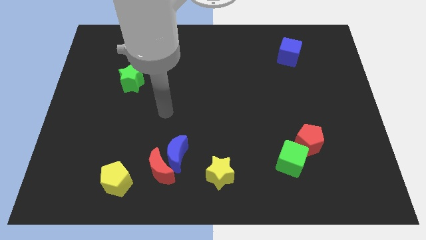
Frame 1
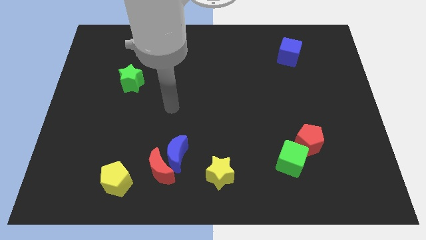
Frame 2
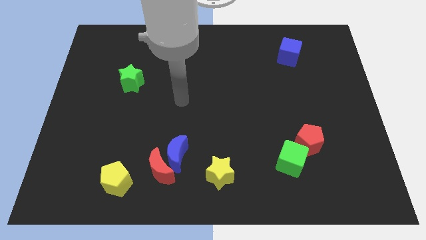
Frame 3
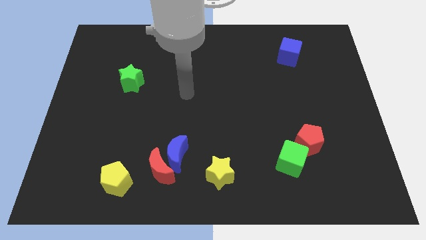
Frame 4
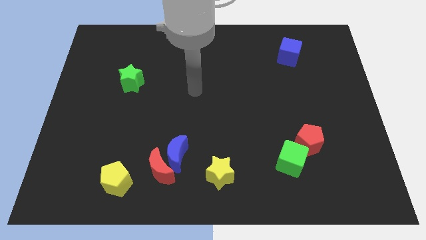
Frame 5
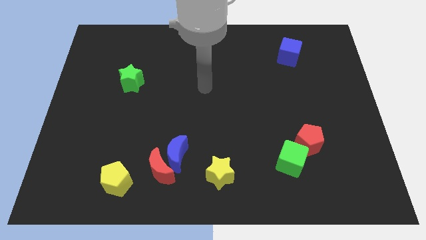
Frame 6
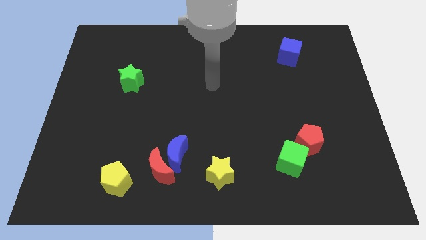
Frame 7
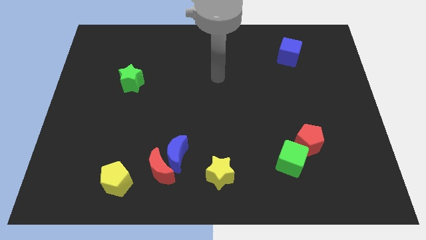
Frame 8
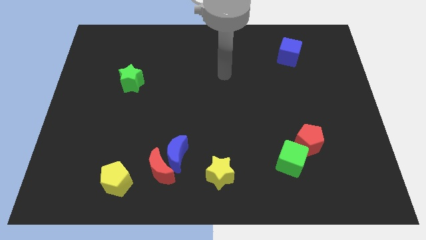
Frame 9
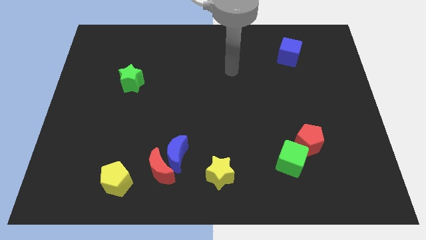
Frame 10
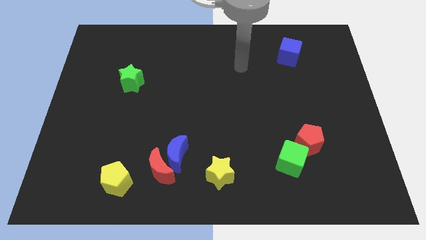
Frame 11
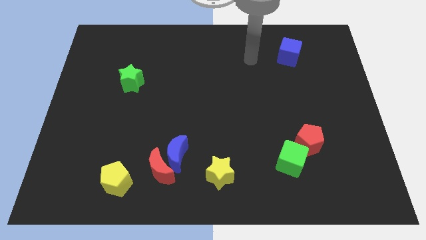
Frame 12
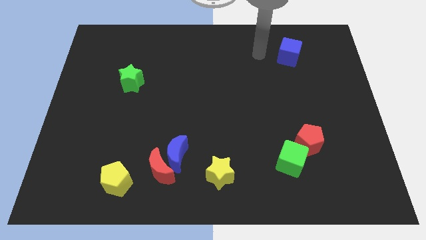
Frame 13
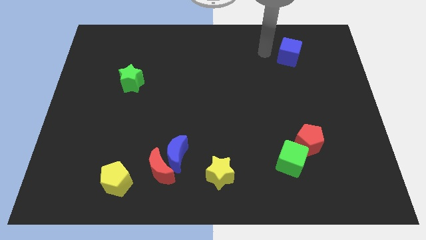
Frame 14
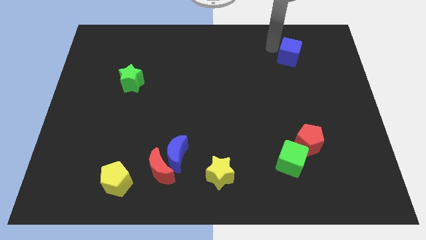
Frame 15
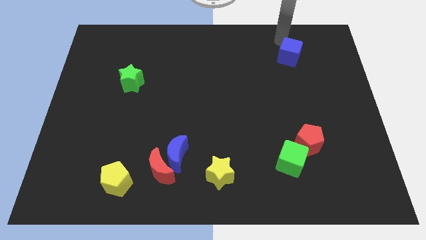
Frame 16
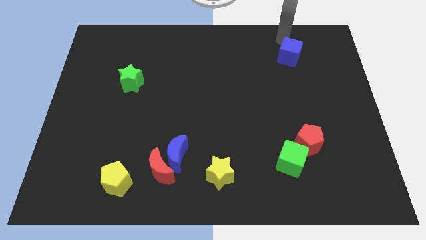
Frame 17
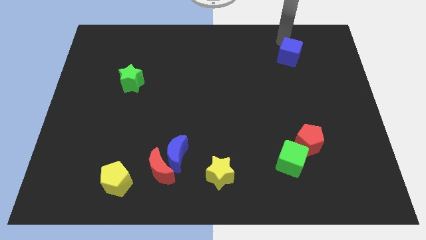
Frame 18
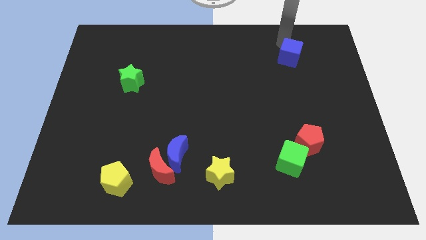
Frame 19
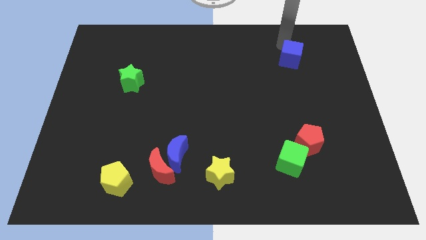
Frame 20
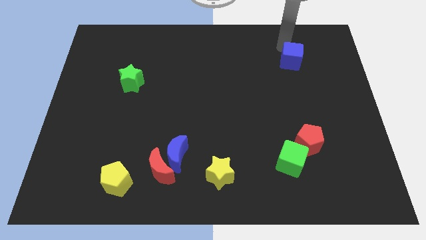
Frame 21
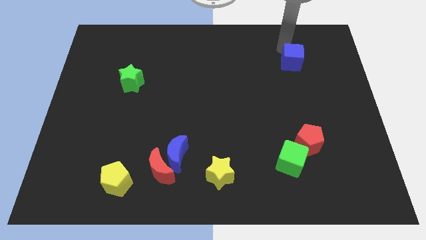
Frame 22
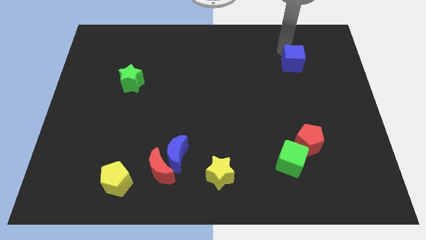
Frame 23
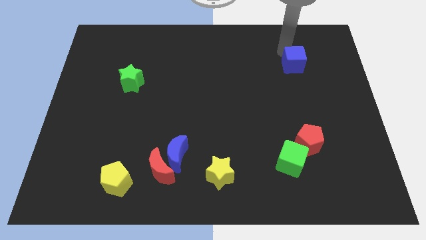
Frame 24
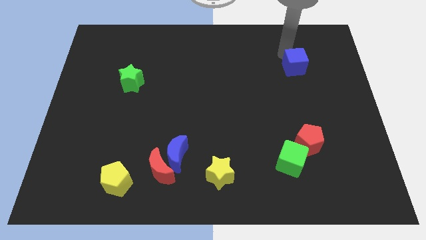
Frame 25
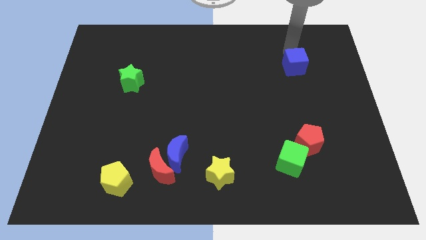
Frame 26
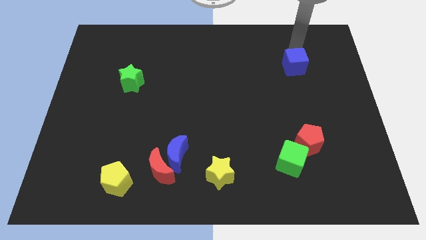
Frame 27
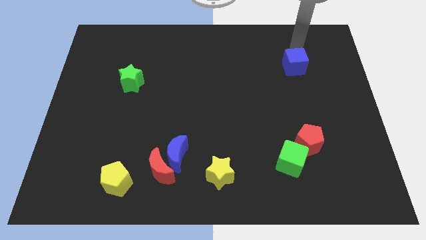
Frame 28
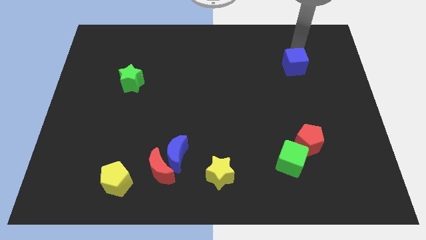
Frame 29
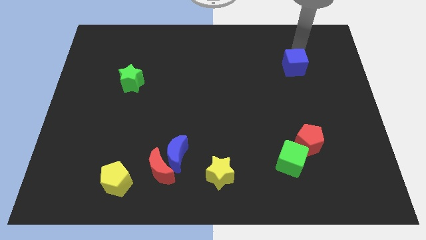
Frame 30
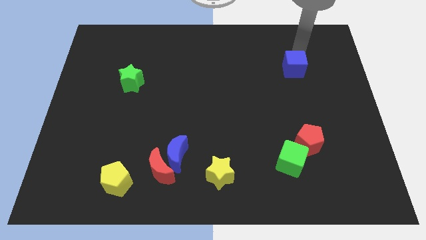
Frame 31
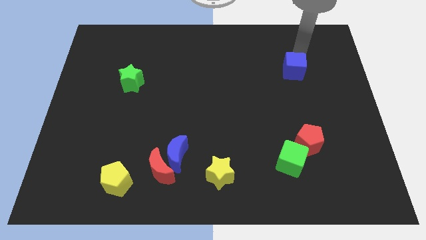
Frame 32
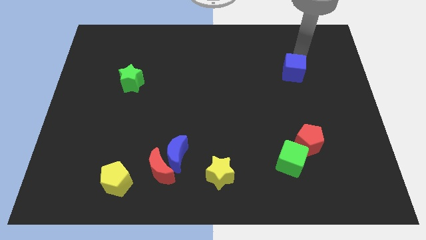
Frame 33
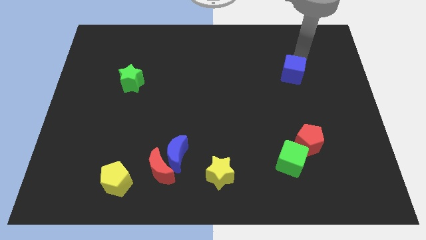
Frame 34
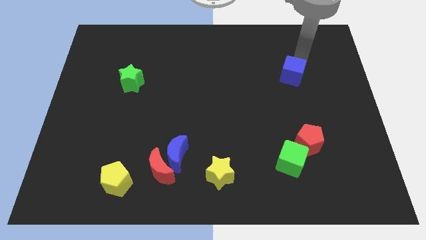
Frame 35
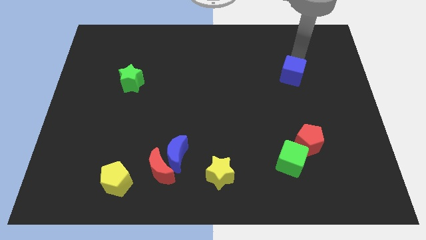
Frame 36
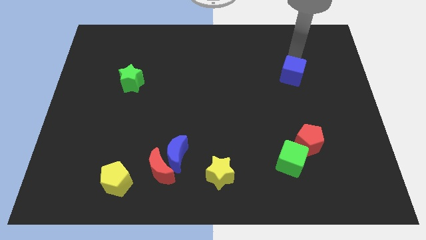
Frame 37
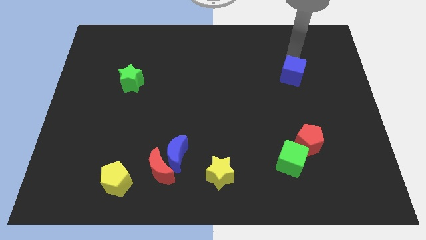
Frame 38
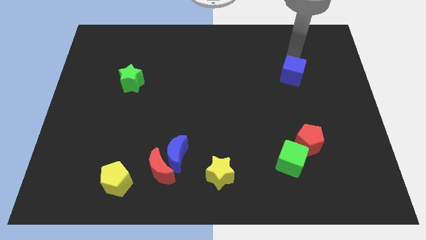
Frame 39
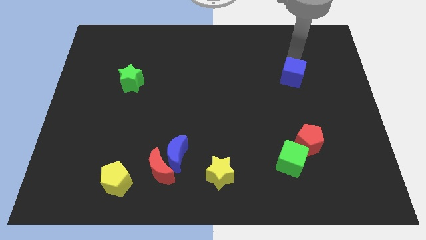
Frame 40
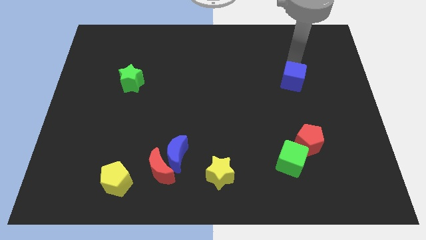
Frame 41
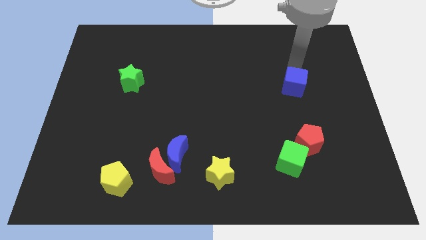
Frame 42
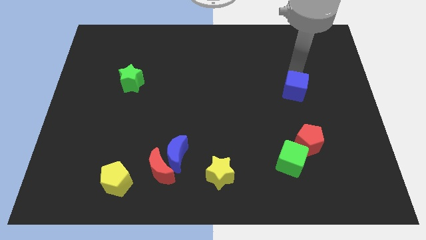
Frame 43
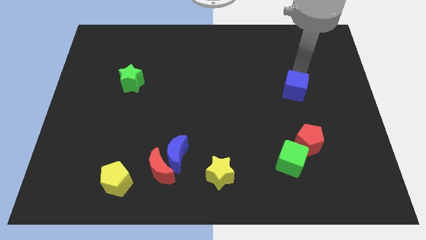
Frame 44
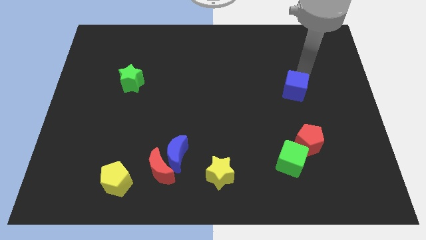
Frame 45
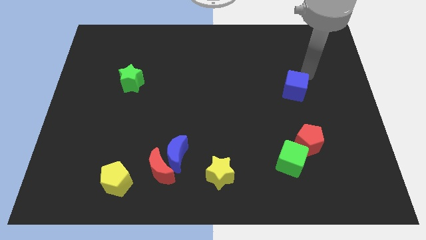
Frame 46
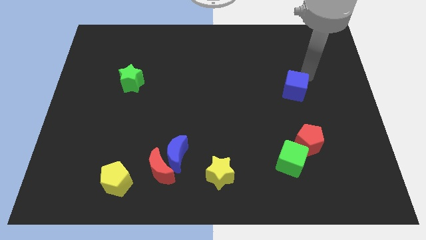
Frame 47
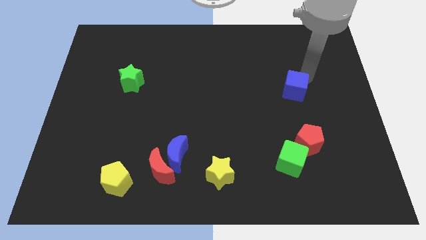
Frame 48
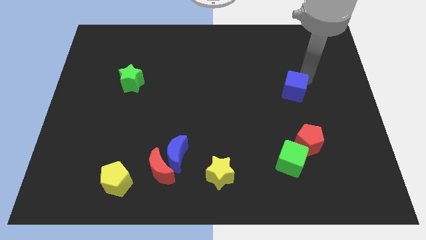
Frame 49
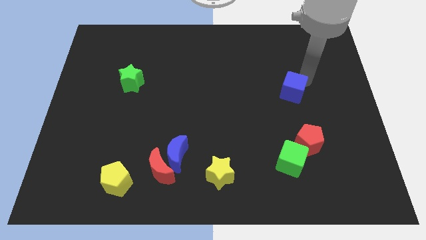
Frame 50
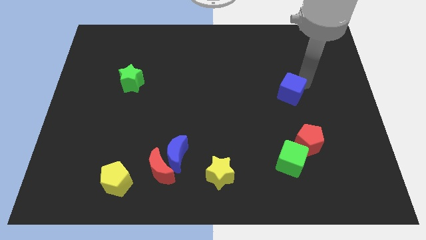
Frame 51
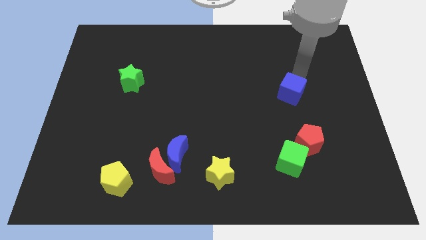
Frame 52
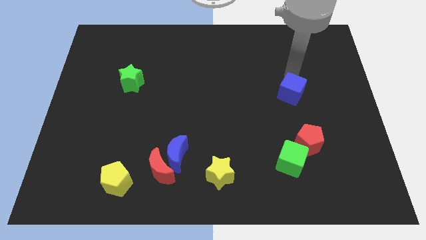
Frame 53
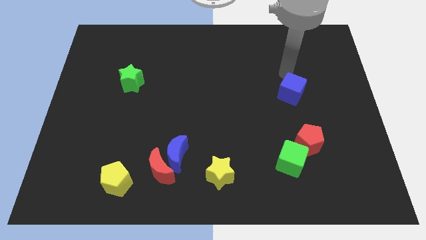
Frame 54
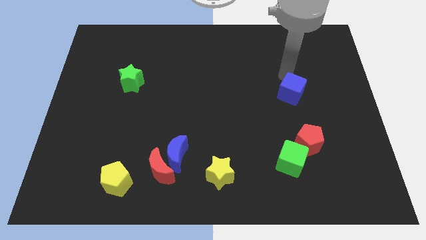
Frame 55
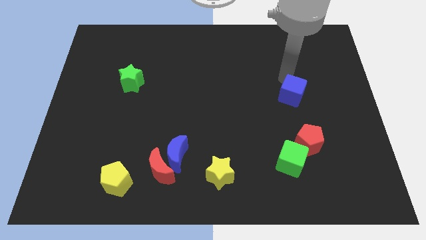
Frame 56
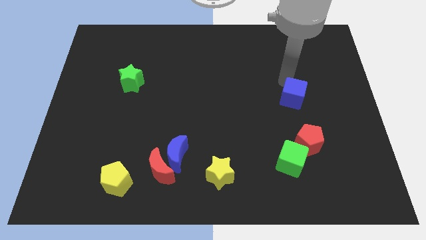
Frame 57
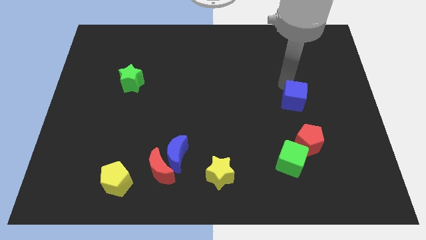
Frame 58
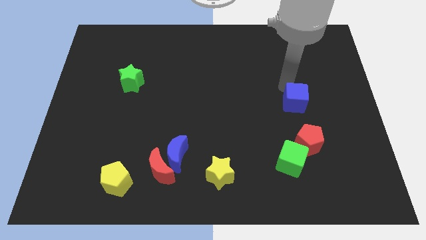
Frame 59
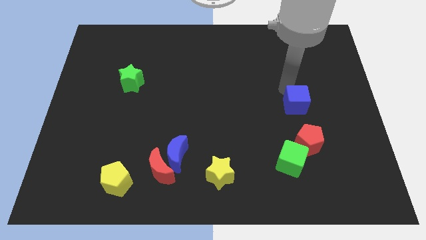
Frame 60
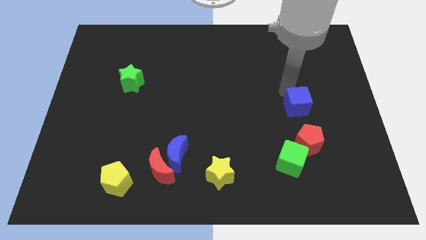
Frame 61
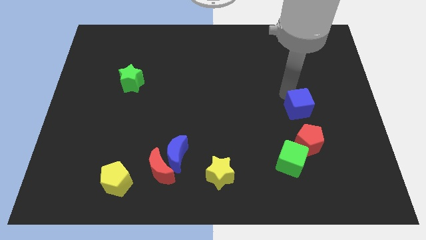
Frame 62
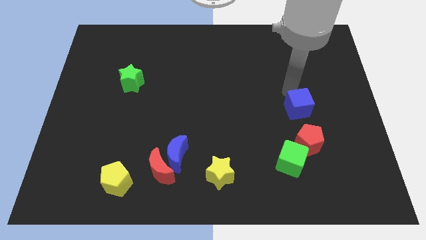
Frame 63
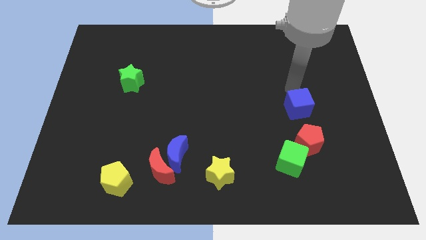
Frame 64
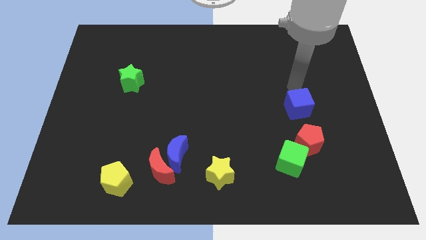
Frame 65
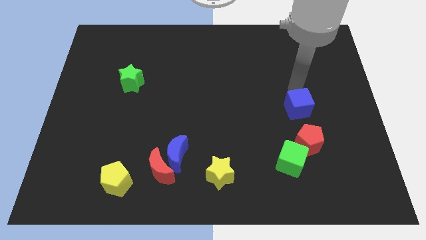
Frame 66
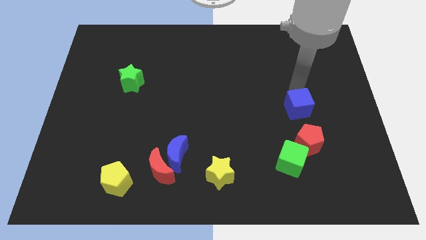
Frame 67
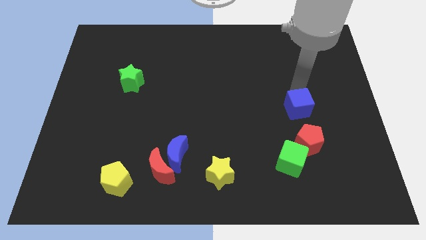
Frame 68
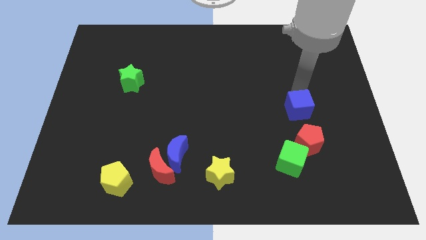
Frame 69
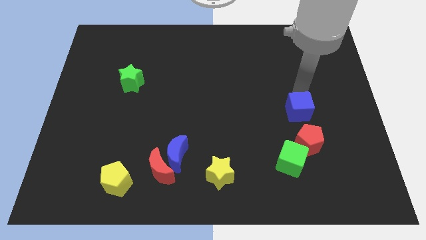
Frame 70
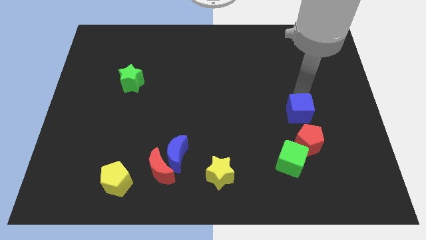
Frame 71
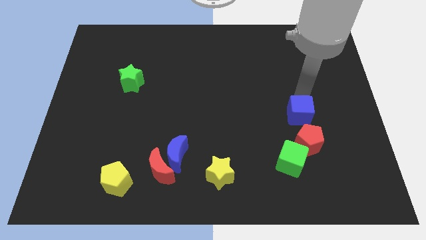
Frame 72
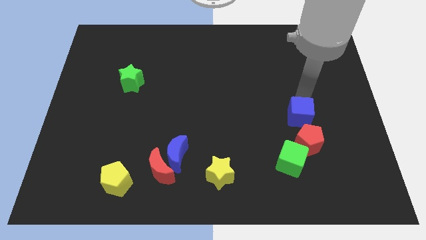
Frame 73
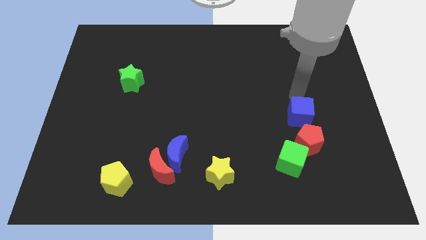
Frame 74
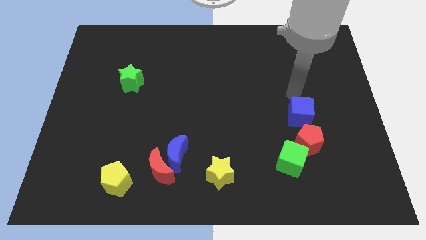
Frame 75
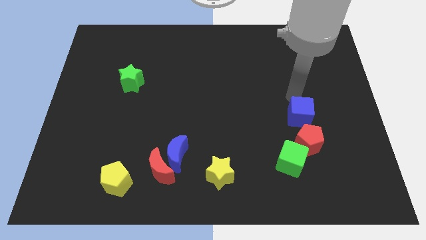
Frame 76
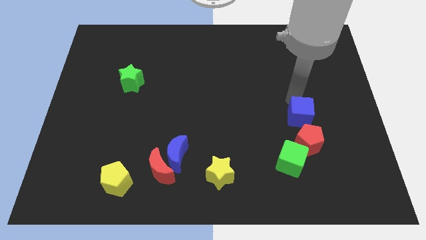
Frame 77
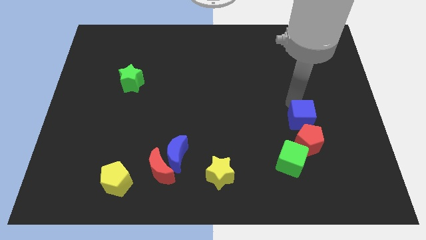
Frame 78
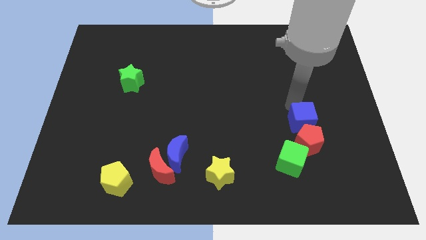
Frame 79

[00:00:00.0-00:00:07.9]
push the blue cube next to the red pentagon
